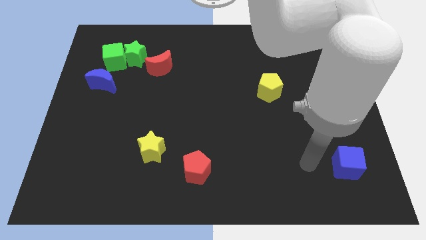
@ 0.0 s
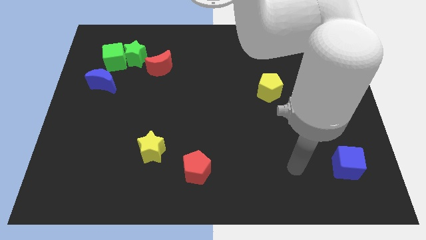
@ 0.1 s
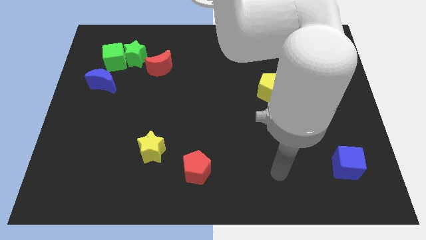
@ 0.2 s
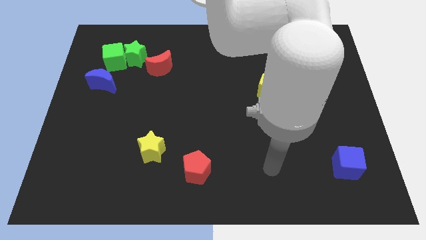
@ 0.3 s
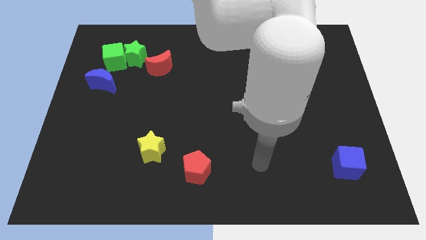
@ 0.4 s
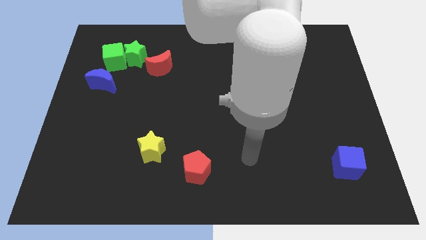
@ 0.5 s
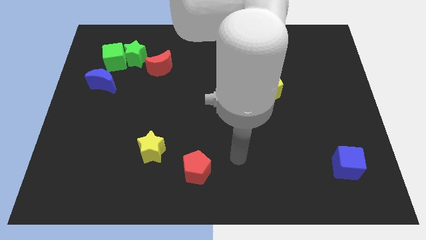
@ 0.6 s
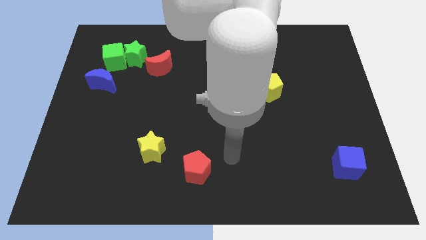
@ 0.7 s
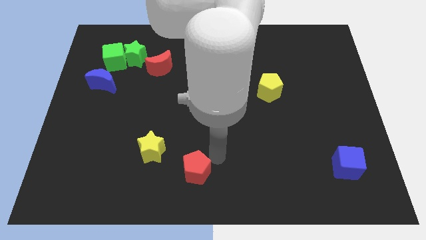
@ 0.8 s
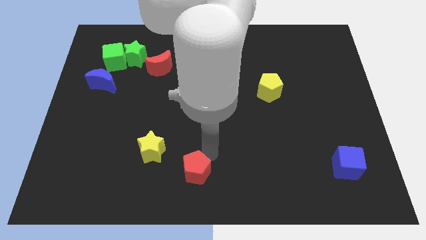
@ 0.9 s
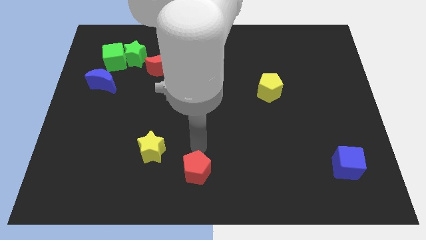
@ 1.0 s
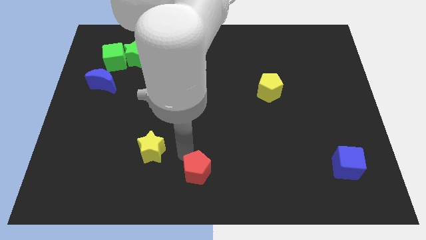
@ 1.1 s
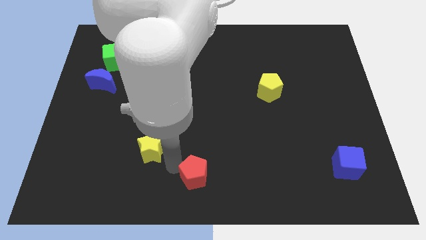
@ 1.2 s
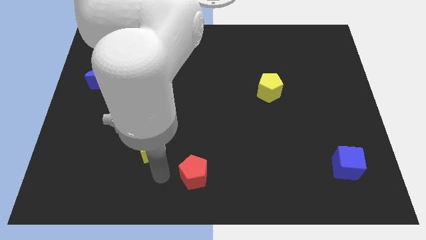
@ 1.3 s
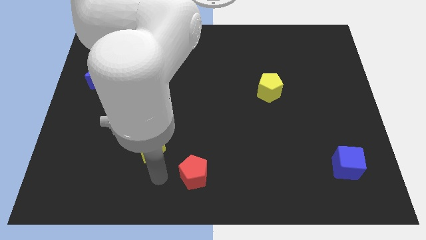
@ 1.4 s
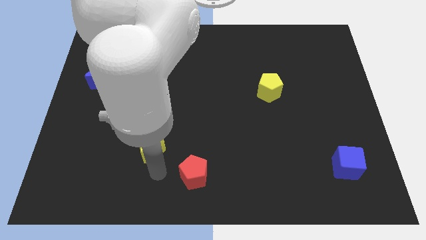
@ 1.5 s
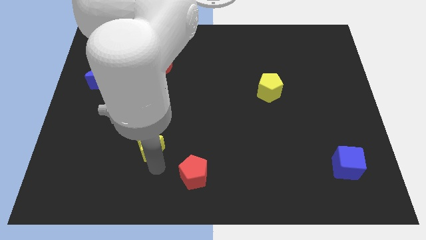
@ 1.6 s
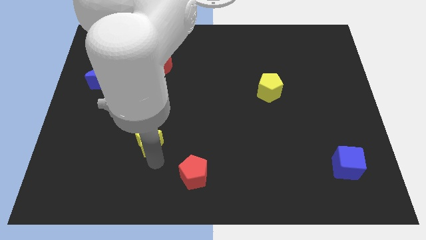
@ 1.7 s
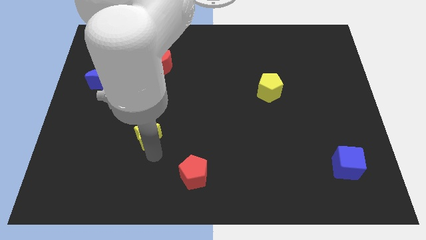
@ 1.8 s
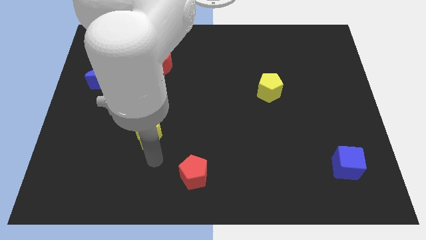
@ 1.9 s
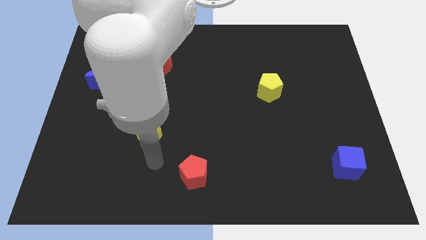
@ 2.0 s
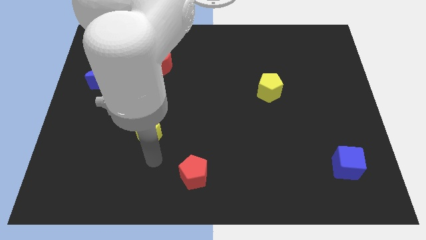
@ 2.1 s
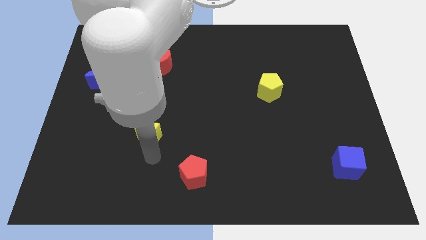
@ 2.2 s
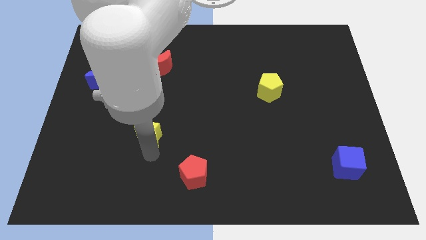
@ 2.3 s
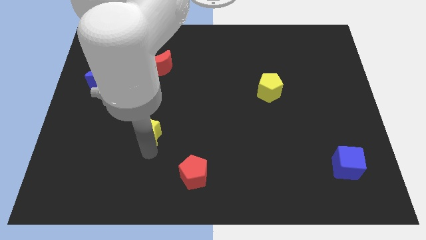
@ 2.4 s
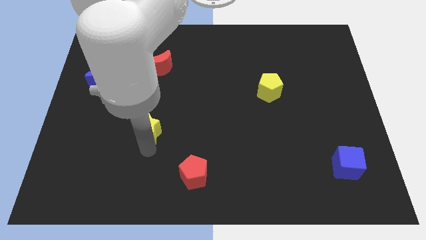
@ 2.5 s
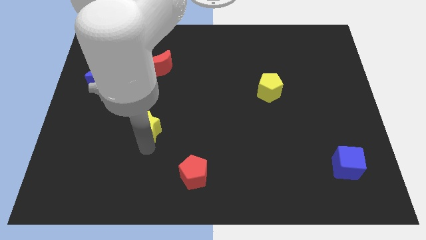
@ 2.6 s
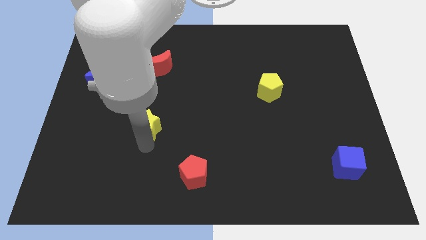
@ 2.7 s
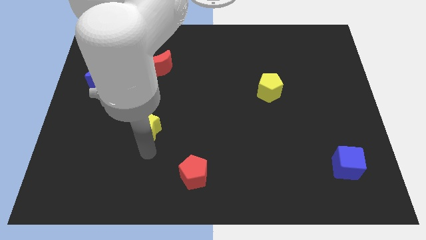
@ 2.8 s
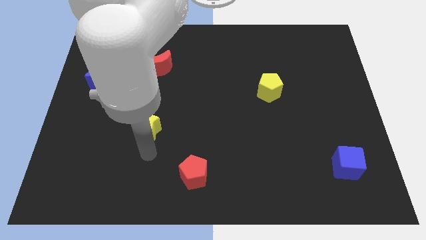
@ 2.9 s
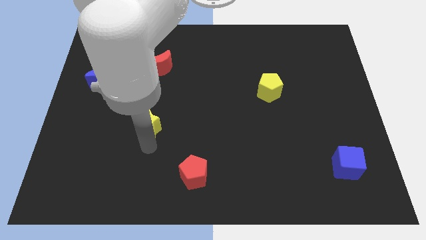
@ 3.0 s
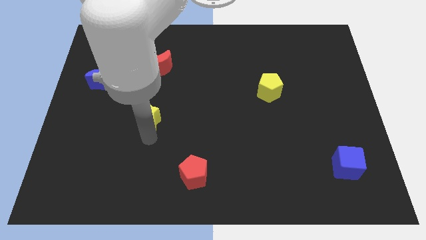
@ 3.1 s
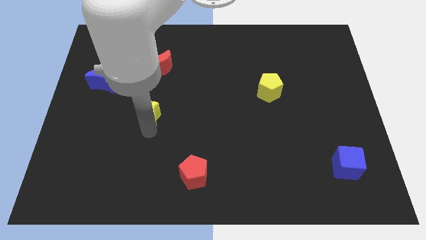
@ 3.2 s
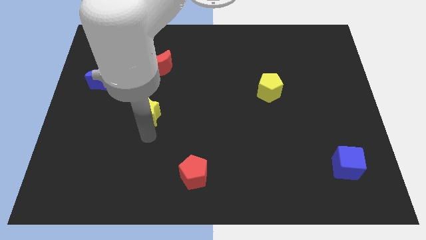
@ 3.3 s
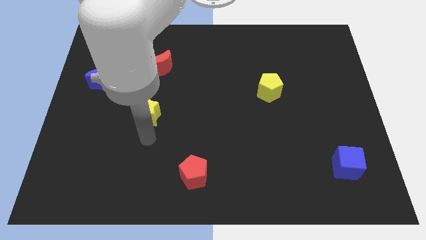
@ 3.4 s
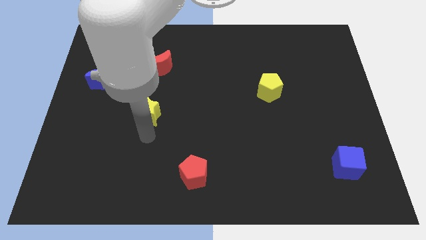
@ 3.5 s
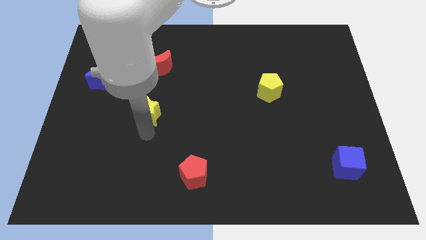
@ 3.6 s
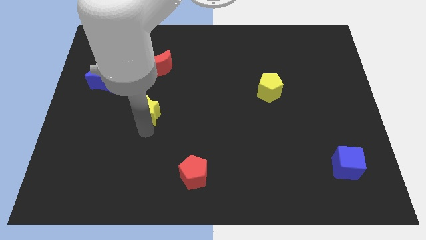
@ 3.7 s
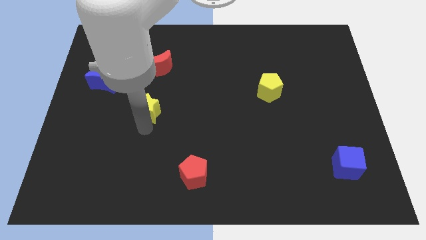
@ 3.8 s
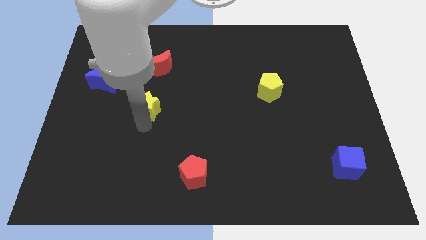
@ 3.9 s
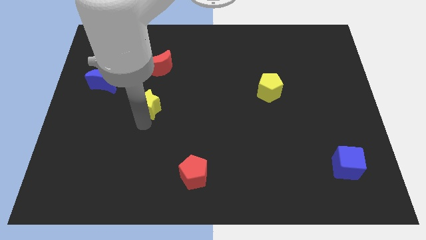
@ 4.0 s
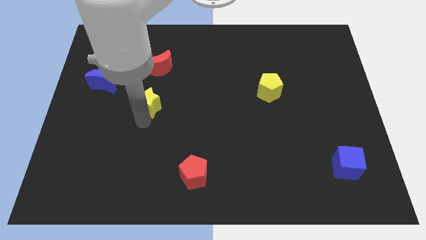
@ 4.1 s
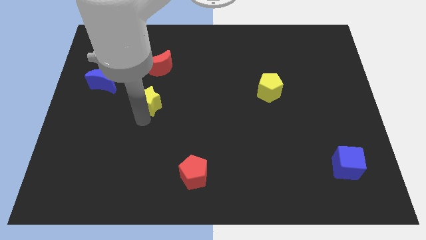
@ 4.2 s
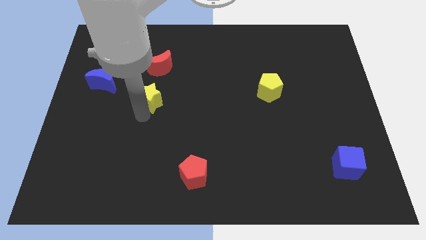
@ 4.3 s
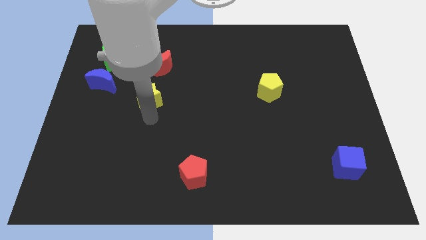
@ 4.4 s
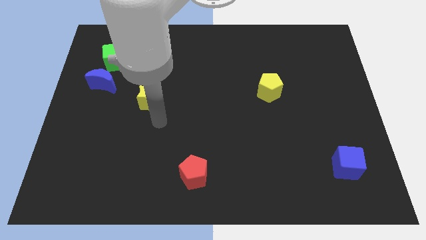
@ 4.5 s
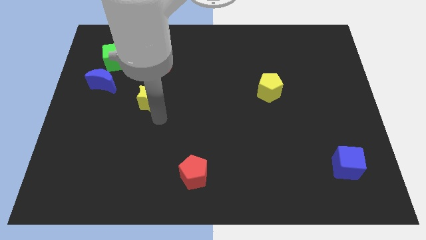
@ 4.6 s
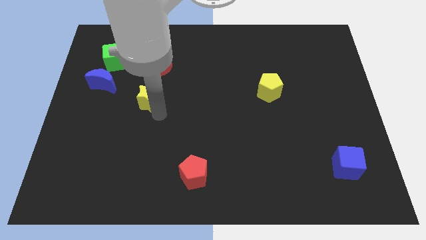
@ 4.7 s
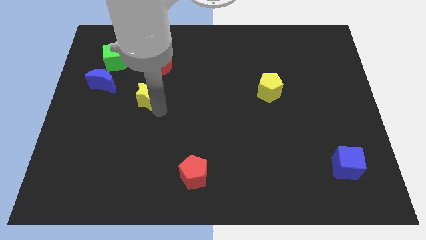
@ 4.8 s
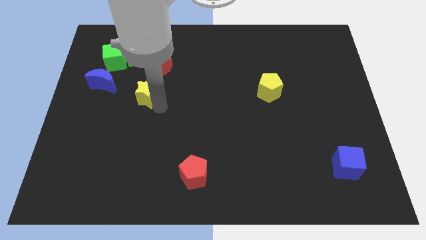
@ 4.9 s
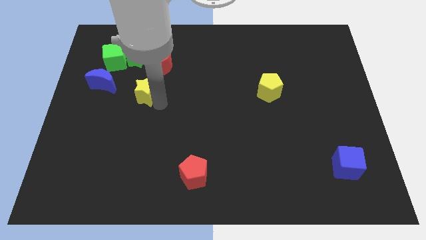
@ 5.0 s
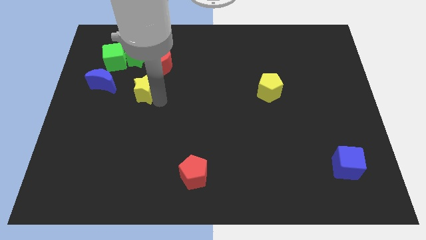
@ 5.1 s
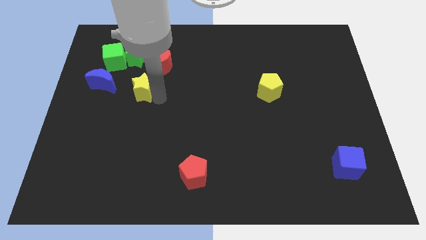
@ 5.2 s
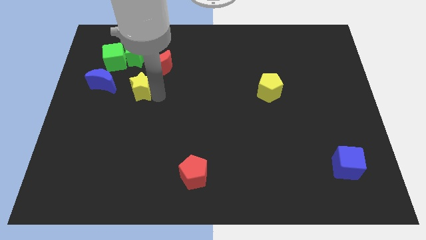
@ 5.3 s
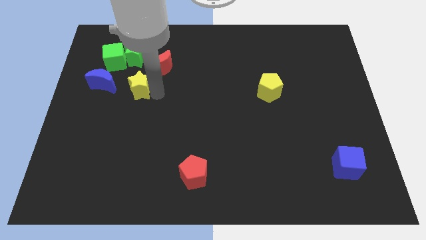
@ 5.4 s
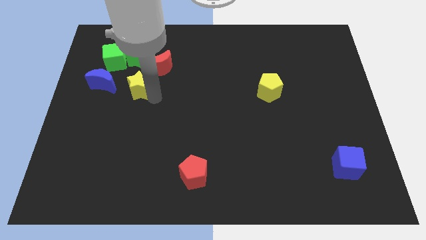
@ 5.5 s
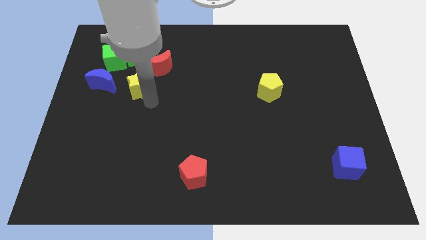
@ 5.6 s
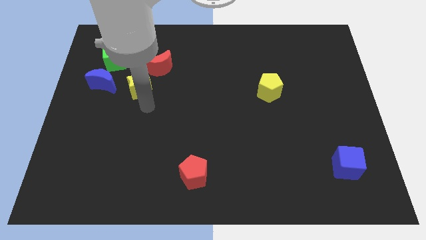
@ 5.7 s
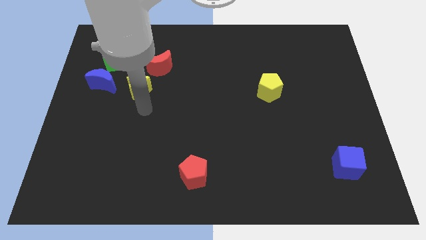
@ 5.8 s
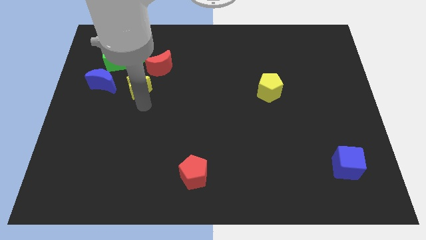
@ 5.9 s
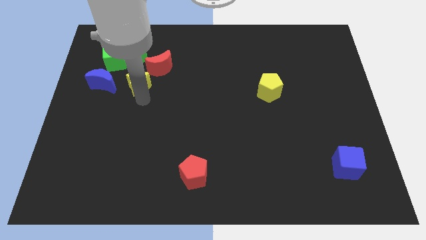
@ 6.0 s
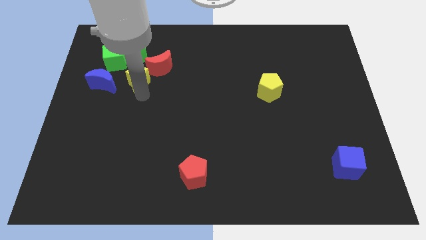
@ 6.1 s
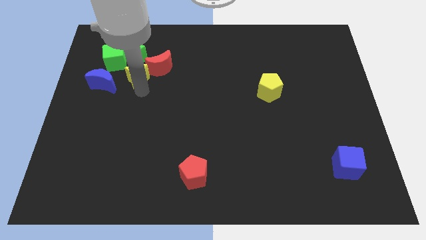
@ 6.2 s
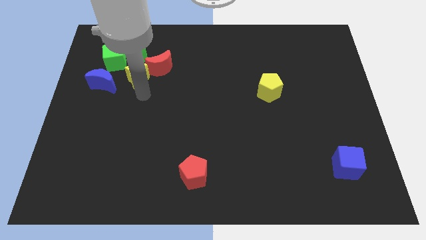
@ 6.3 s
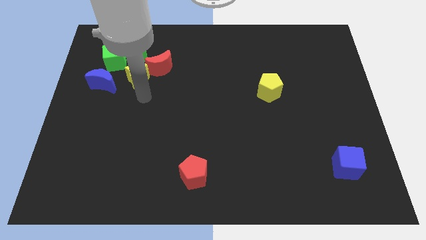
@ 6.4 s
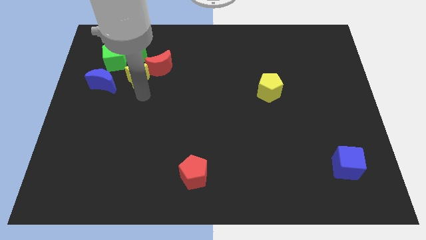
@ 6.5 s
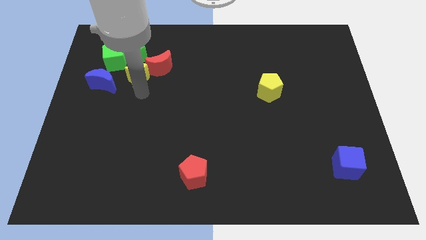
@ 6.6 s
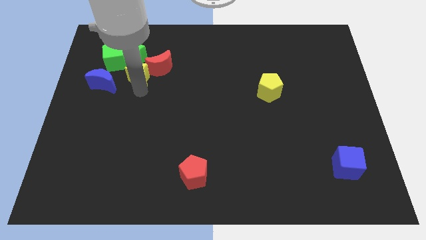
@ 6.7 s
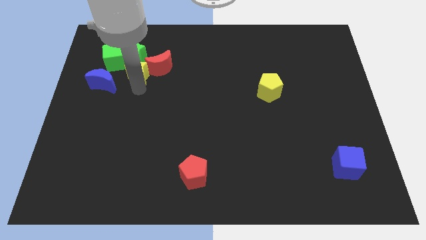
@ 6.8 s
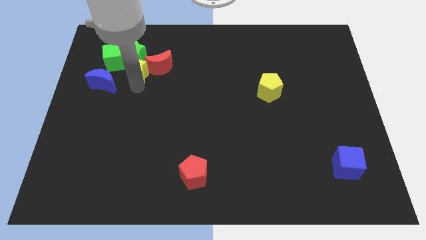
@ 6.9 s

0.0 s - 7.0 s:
move the yellow star to the green star
